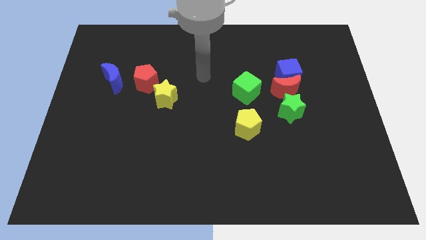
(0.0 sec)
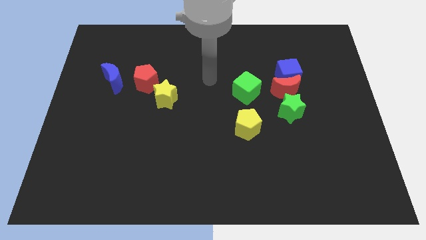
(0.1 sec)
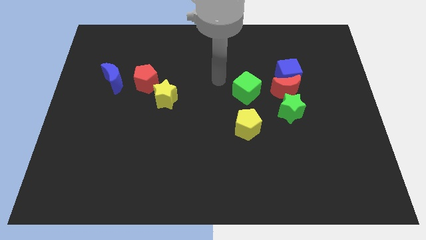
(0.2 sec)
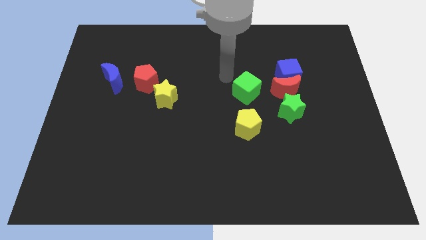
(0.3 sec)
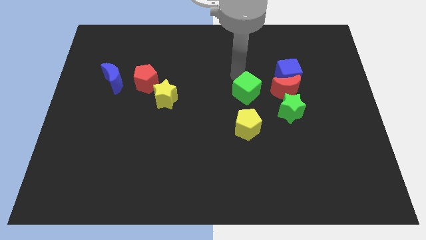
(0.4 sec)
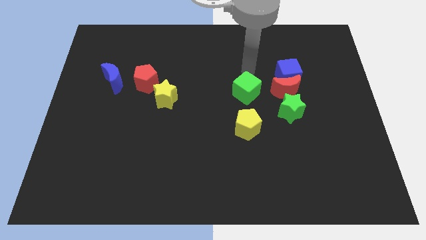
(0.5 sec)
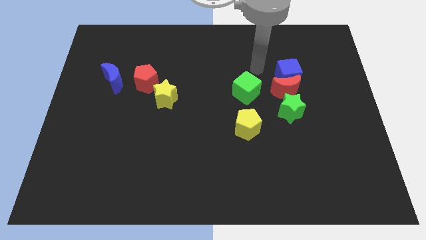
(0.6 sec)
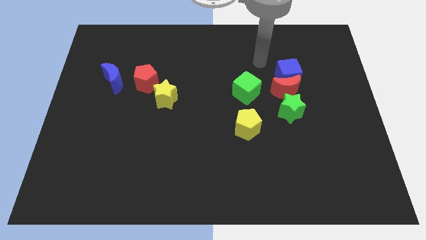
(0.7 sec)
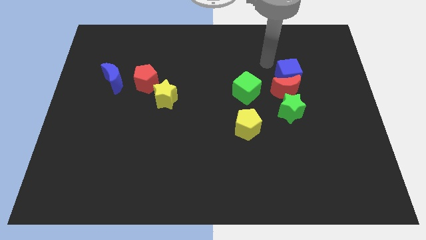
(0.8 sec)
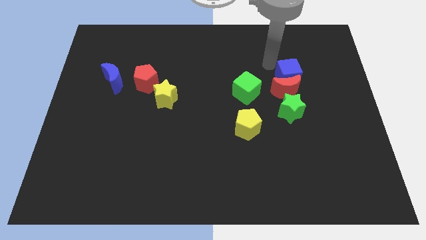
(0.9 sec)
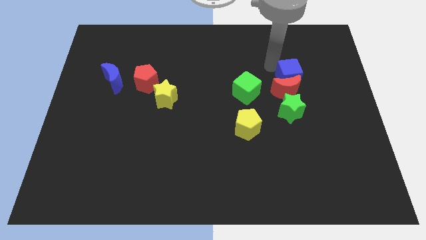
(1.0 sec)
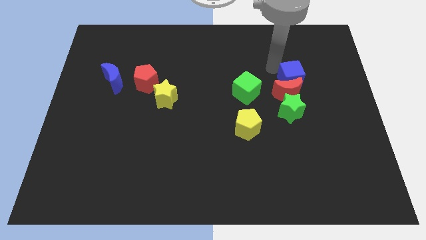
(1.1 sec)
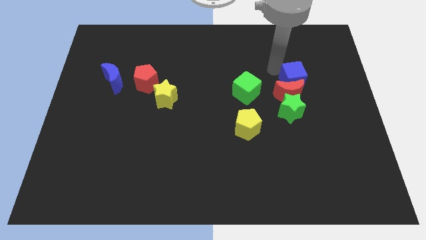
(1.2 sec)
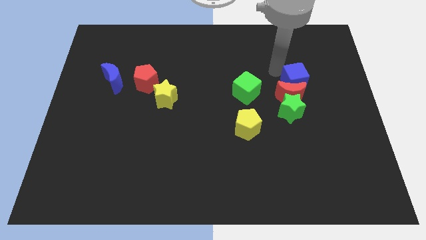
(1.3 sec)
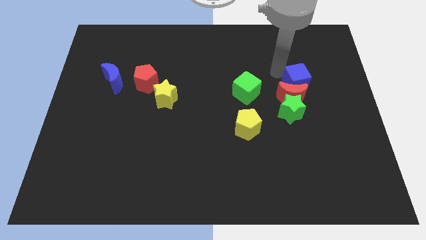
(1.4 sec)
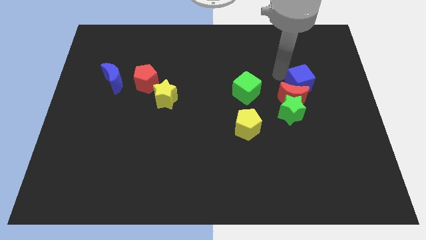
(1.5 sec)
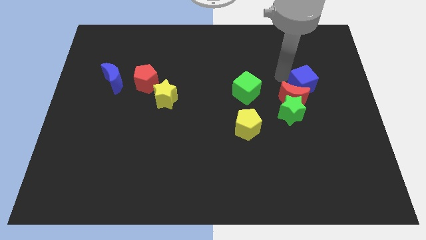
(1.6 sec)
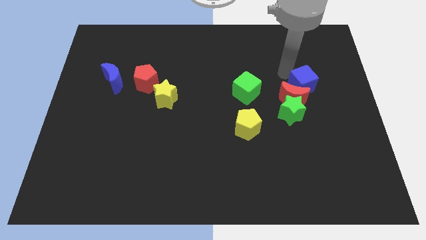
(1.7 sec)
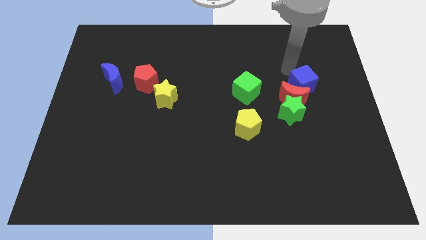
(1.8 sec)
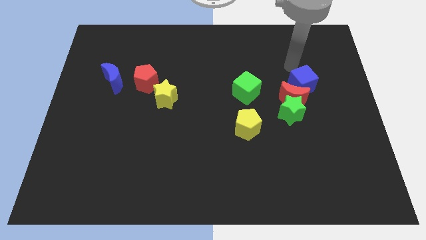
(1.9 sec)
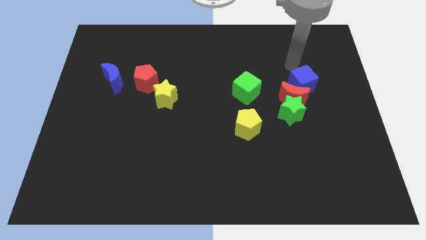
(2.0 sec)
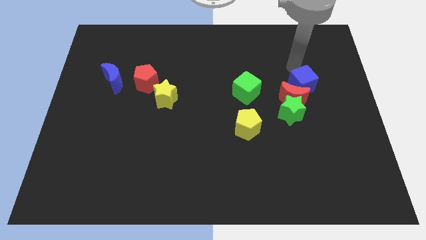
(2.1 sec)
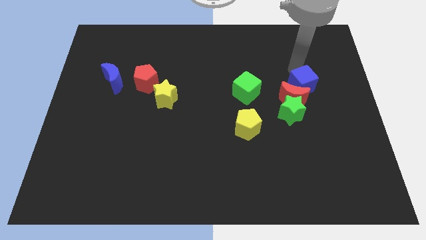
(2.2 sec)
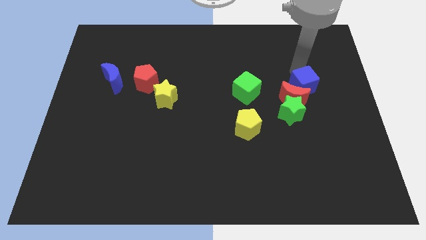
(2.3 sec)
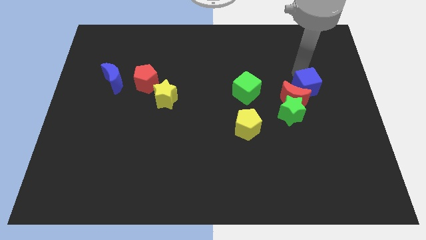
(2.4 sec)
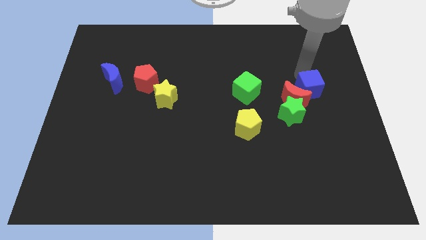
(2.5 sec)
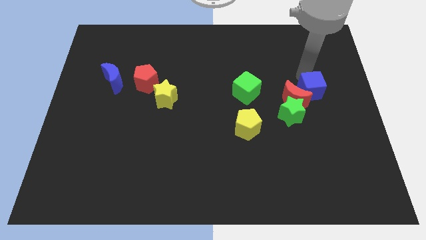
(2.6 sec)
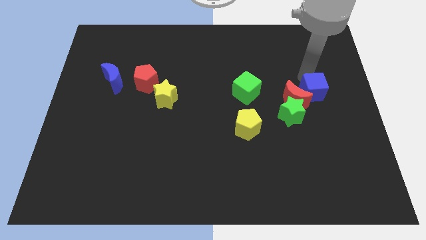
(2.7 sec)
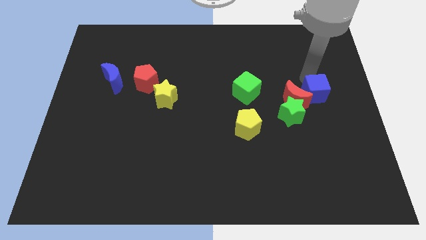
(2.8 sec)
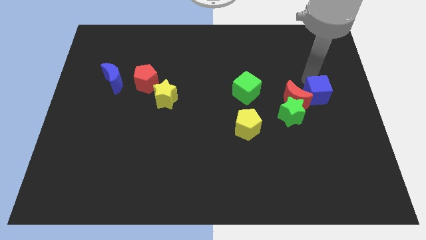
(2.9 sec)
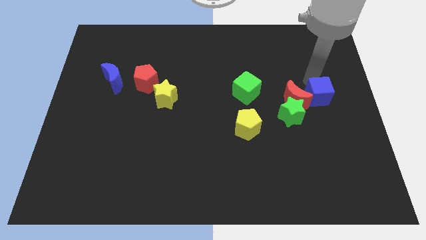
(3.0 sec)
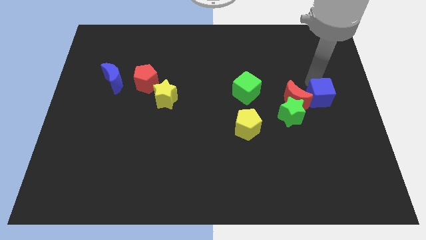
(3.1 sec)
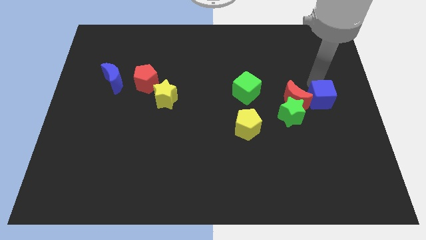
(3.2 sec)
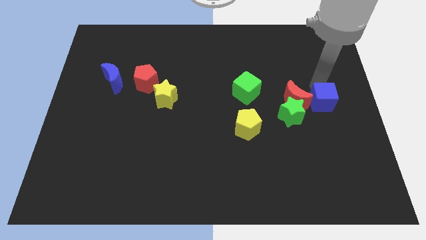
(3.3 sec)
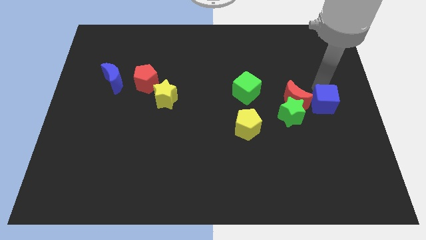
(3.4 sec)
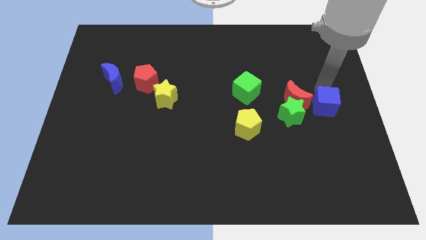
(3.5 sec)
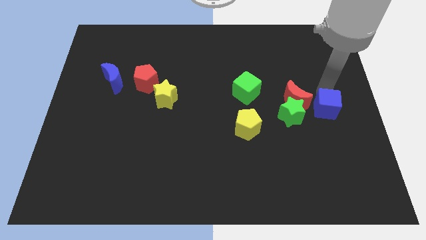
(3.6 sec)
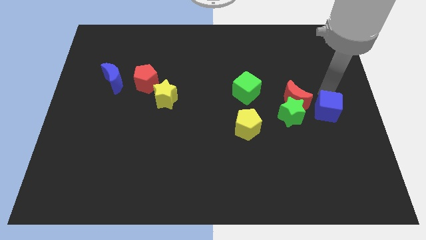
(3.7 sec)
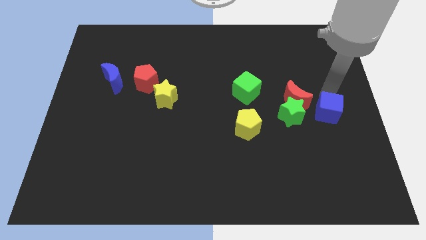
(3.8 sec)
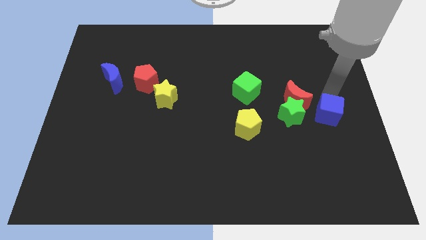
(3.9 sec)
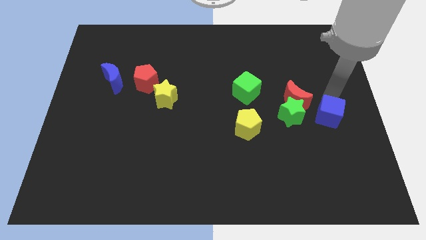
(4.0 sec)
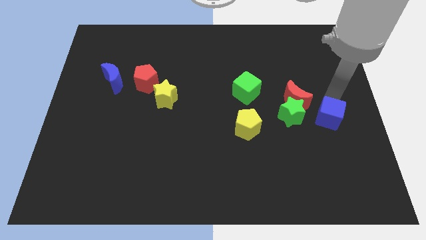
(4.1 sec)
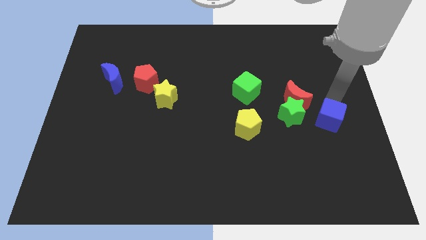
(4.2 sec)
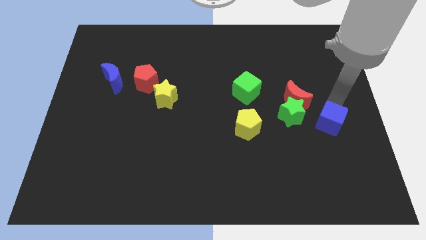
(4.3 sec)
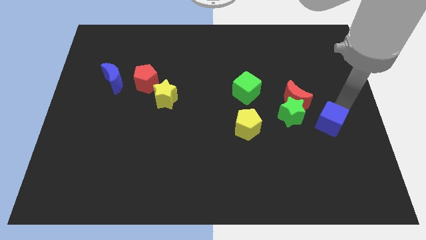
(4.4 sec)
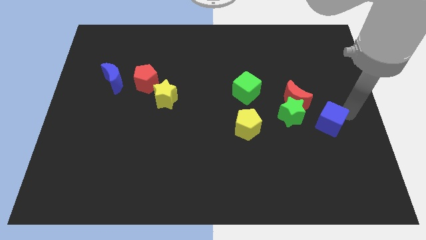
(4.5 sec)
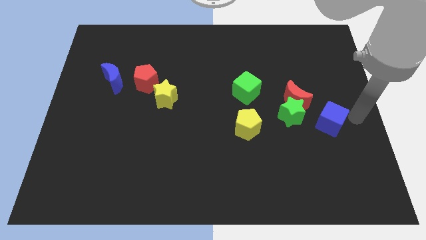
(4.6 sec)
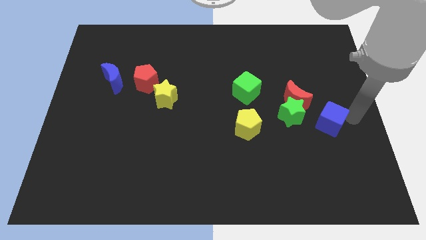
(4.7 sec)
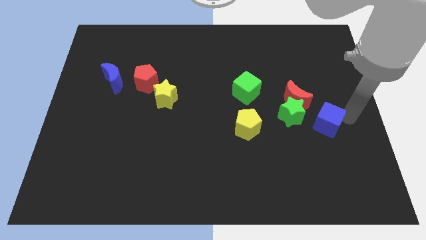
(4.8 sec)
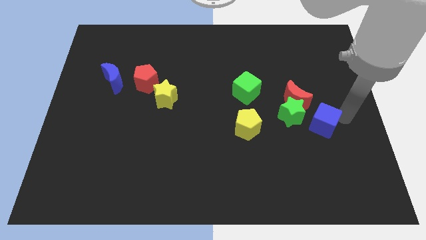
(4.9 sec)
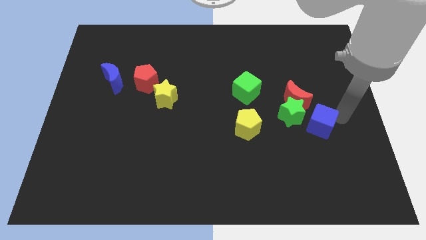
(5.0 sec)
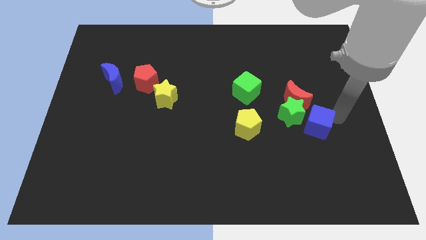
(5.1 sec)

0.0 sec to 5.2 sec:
slide the blue cube to the right of the yellow pentagon

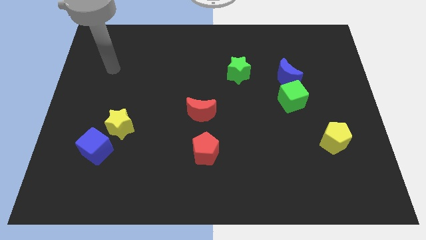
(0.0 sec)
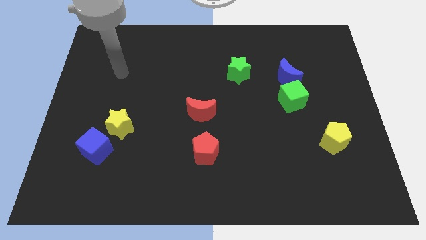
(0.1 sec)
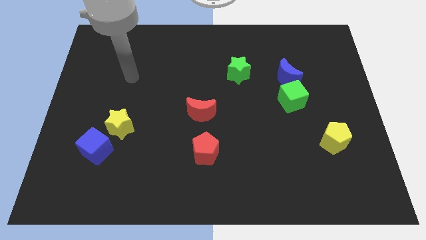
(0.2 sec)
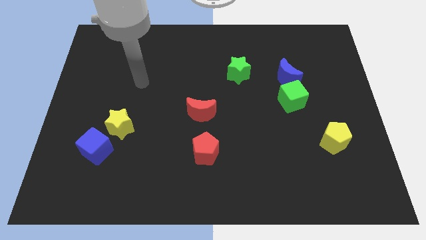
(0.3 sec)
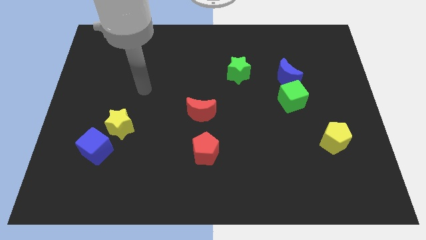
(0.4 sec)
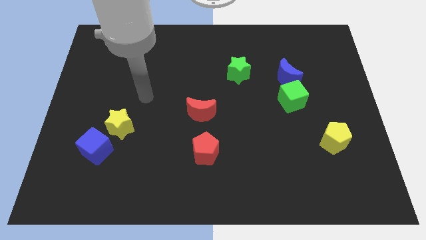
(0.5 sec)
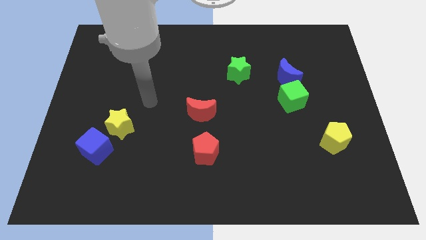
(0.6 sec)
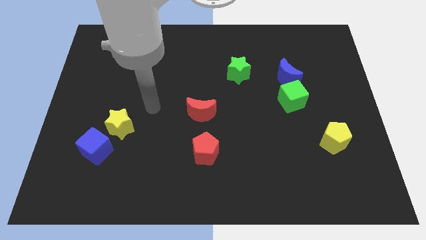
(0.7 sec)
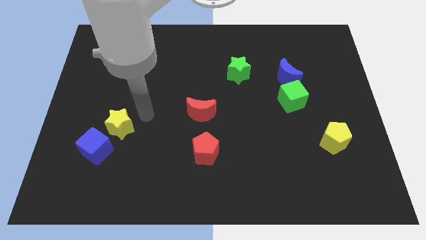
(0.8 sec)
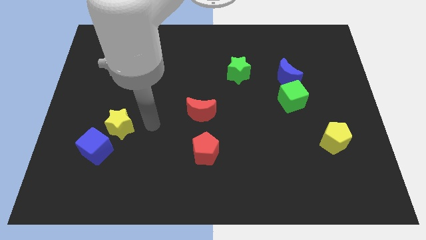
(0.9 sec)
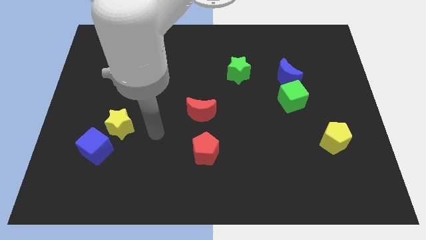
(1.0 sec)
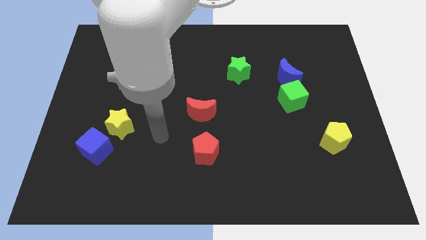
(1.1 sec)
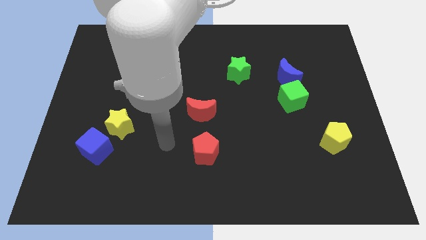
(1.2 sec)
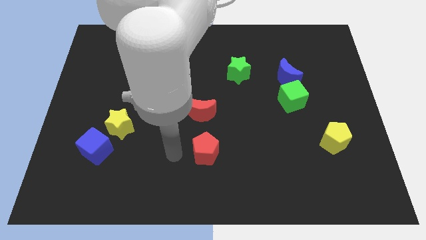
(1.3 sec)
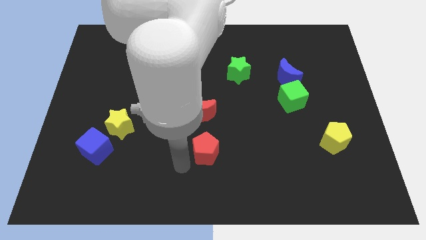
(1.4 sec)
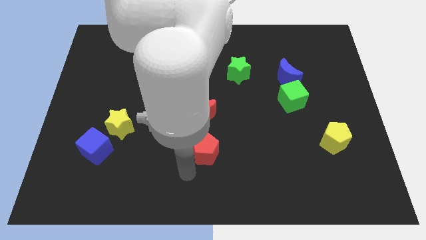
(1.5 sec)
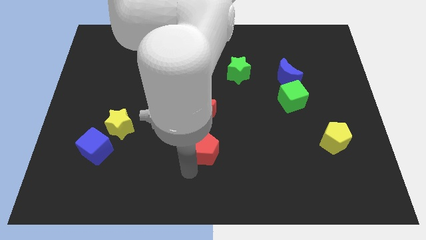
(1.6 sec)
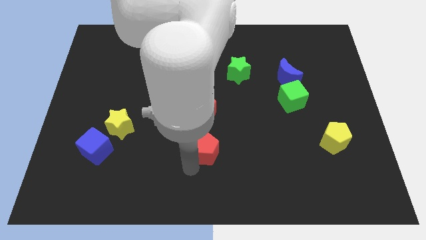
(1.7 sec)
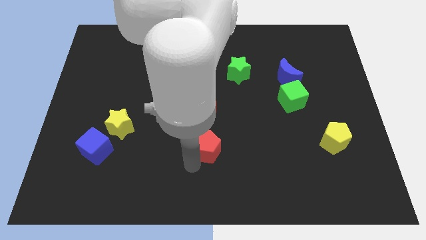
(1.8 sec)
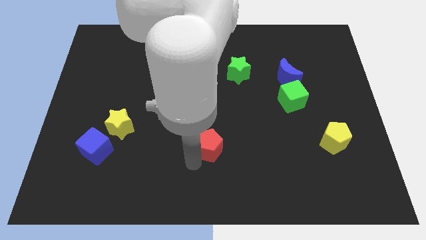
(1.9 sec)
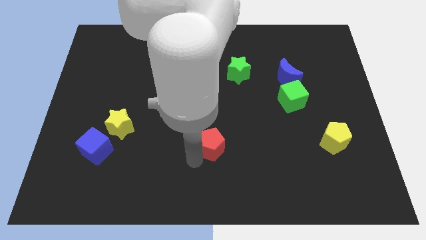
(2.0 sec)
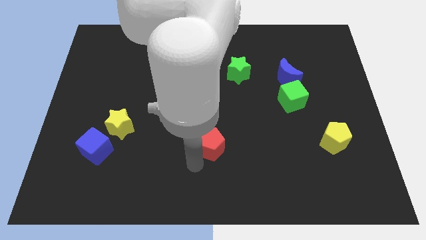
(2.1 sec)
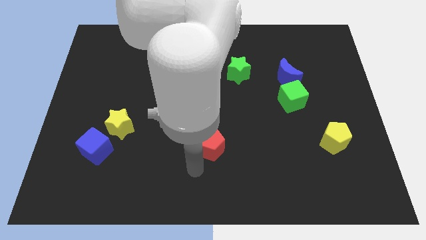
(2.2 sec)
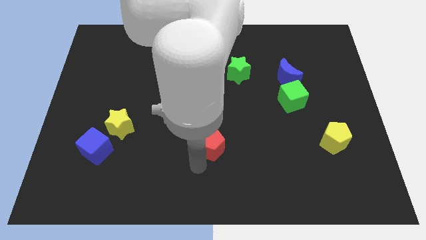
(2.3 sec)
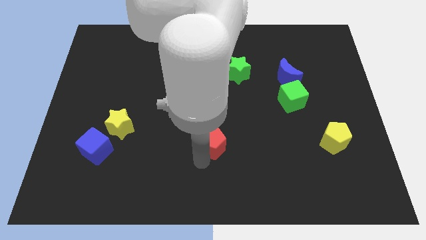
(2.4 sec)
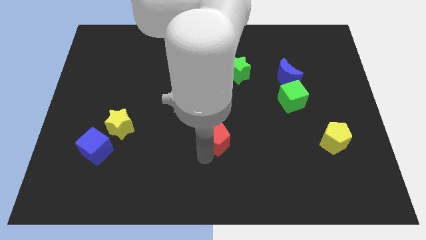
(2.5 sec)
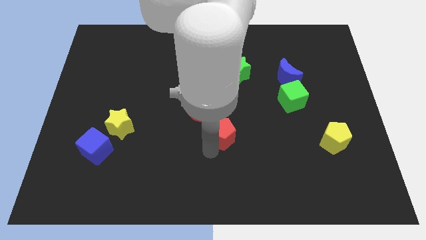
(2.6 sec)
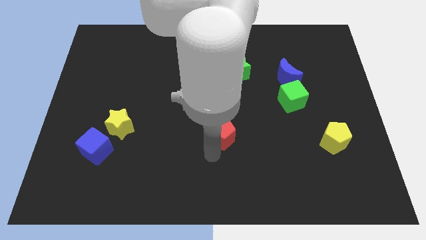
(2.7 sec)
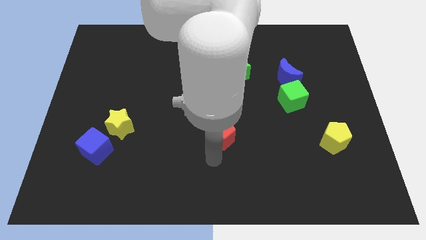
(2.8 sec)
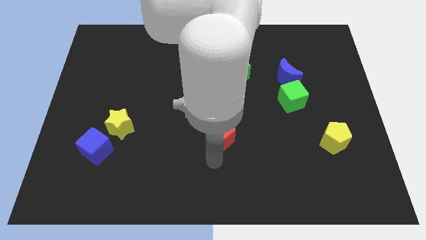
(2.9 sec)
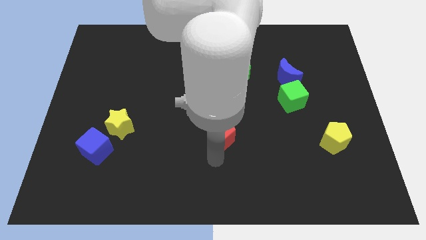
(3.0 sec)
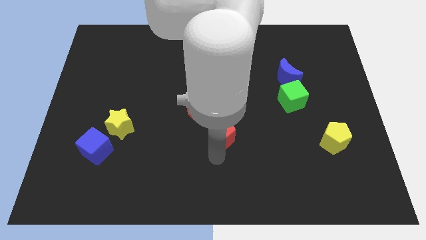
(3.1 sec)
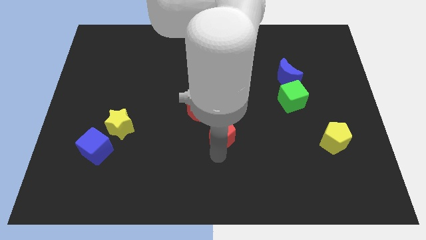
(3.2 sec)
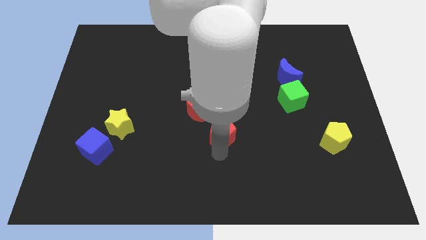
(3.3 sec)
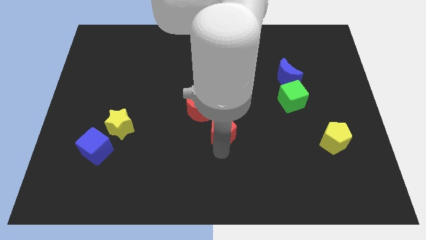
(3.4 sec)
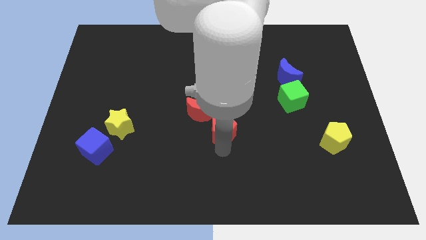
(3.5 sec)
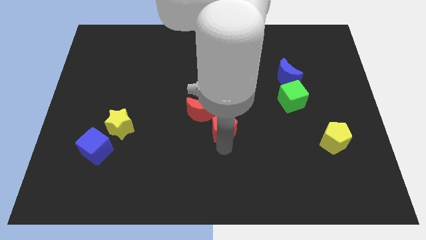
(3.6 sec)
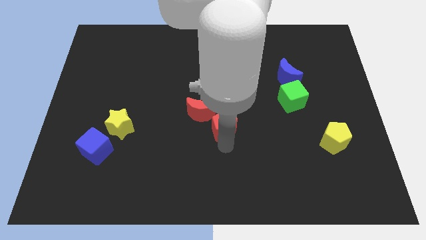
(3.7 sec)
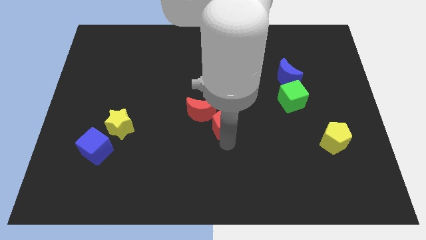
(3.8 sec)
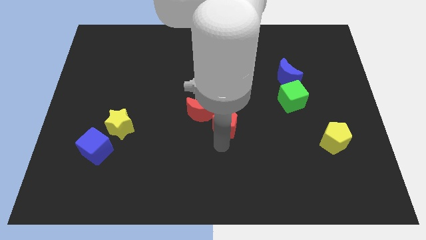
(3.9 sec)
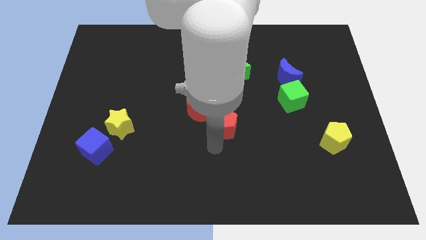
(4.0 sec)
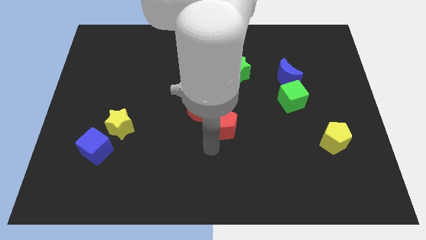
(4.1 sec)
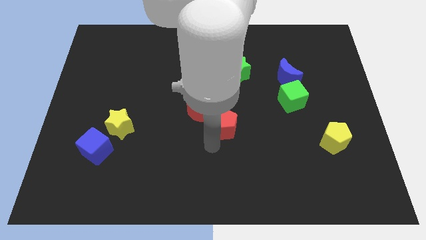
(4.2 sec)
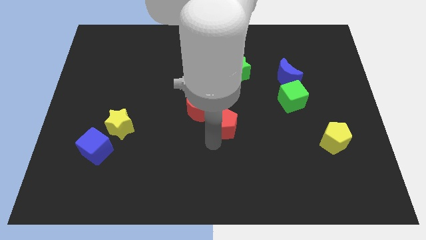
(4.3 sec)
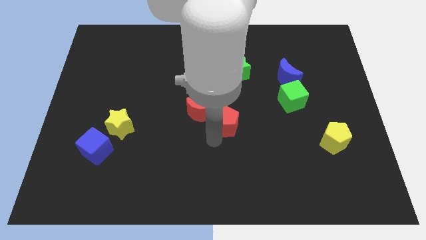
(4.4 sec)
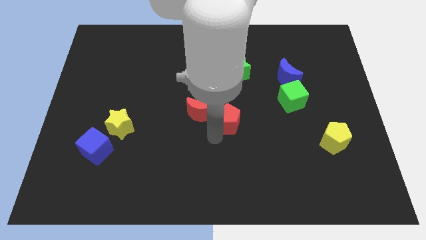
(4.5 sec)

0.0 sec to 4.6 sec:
push the red pentagon below the green star
